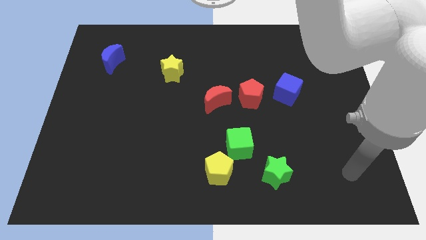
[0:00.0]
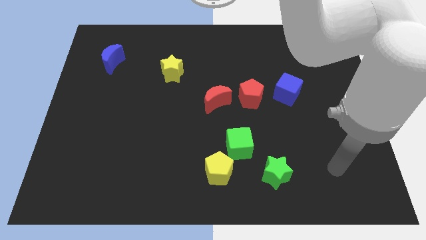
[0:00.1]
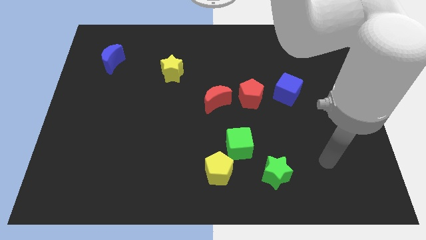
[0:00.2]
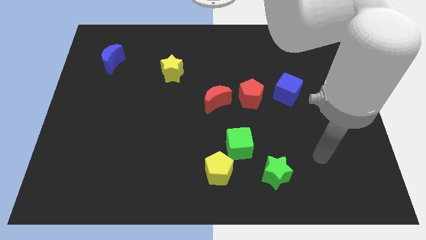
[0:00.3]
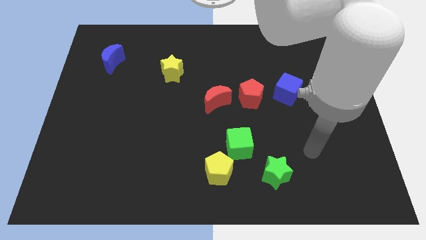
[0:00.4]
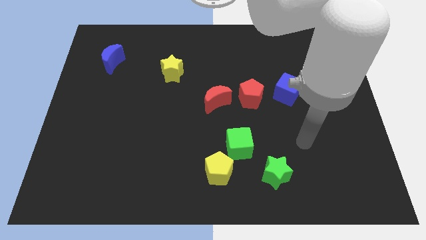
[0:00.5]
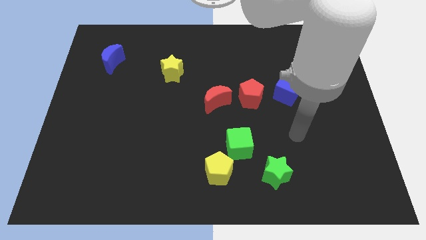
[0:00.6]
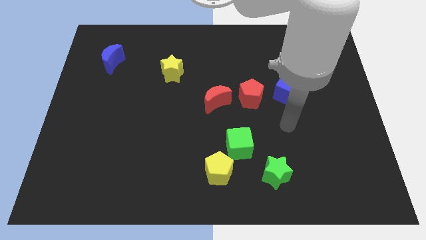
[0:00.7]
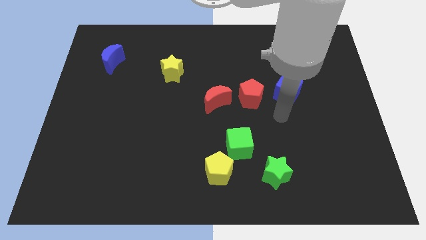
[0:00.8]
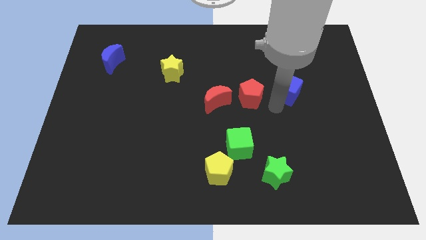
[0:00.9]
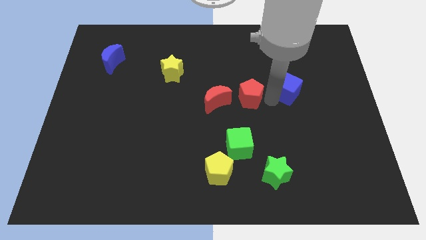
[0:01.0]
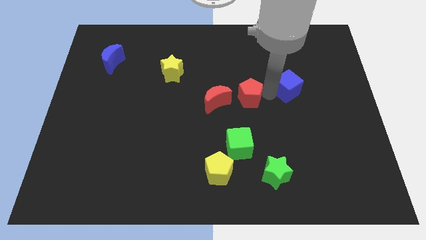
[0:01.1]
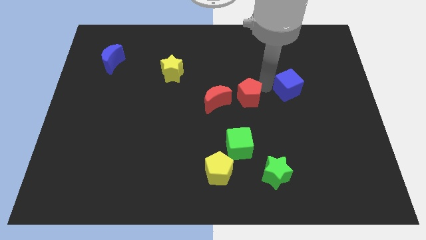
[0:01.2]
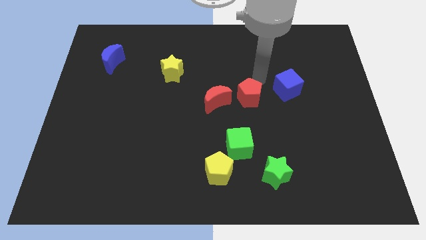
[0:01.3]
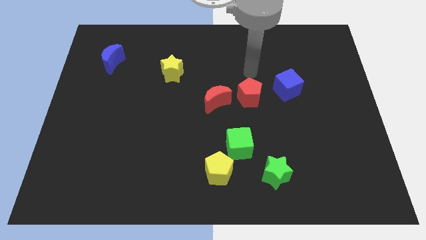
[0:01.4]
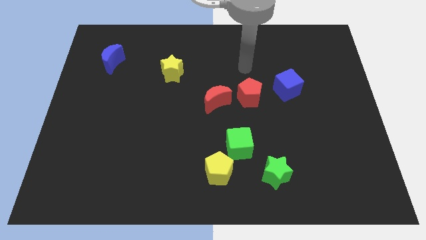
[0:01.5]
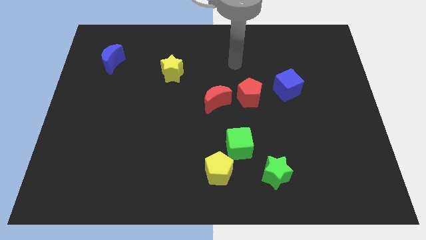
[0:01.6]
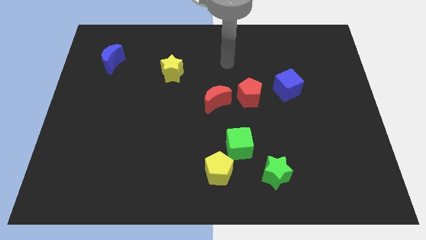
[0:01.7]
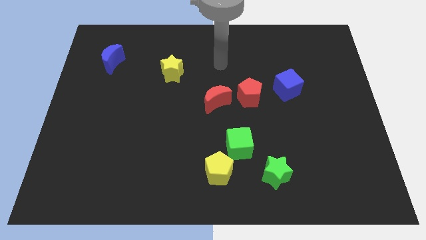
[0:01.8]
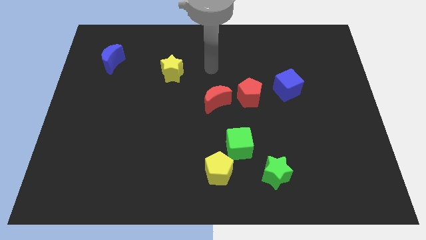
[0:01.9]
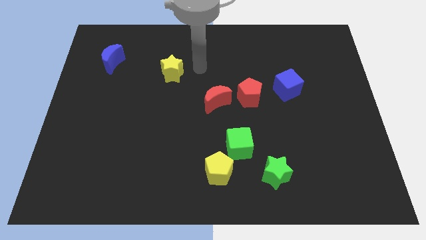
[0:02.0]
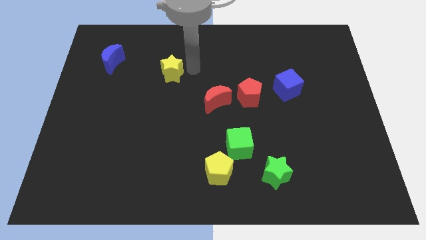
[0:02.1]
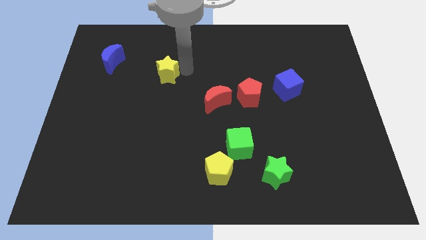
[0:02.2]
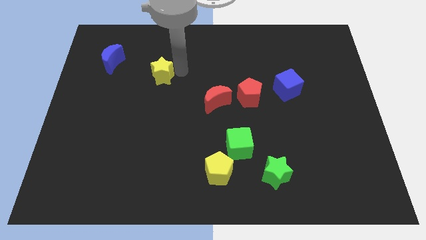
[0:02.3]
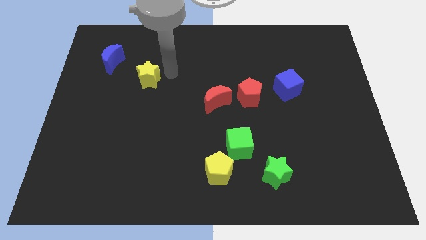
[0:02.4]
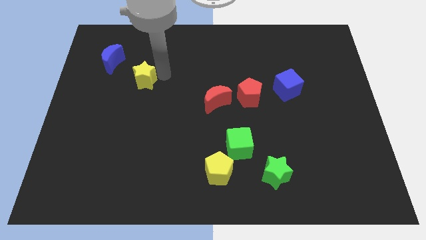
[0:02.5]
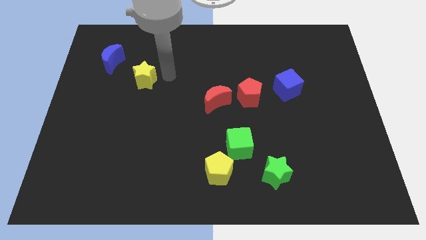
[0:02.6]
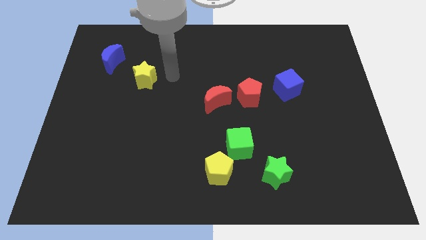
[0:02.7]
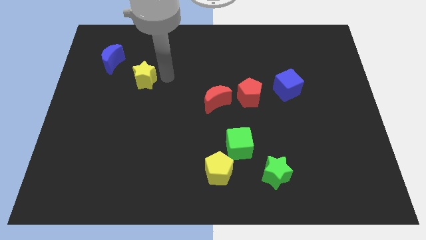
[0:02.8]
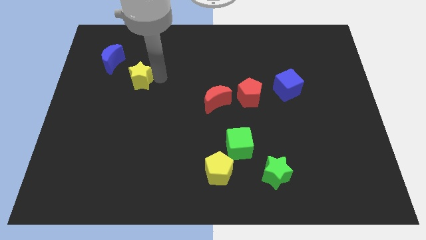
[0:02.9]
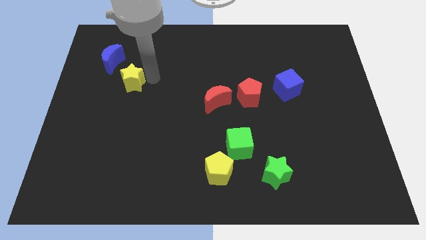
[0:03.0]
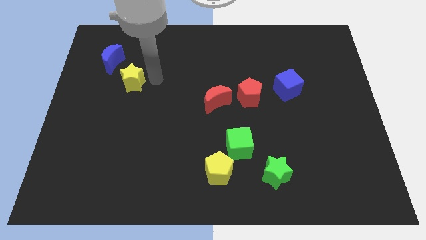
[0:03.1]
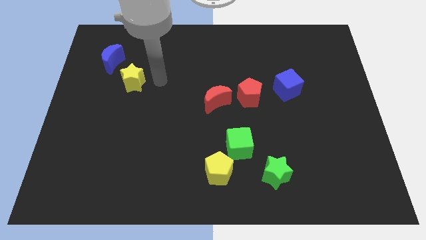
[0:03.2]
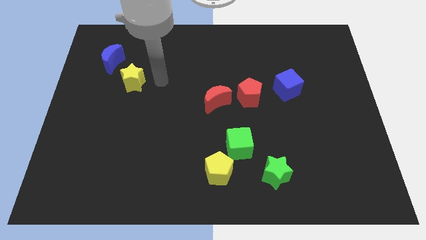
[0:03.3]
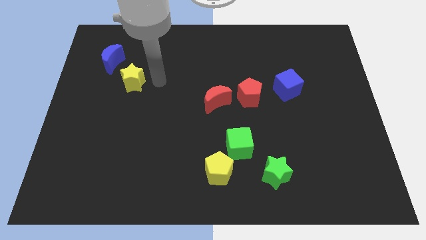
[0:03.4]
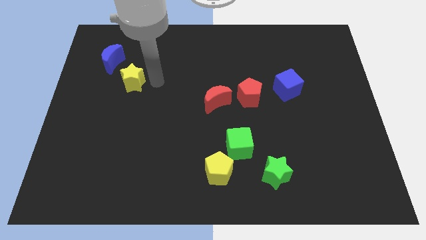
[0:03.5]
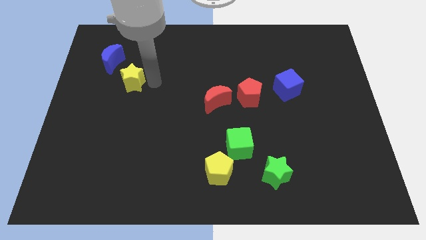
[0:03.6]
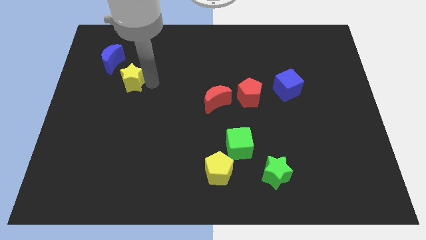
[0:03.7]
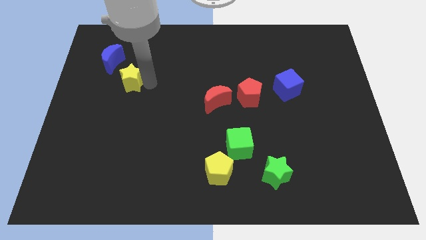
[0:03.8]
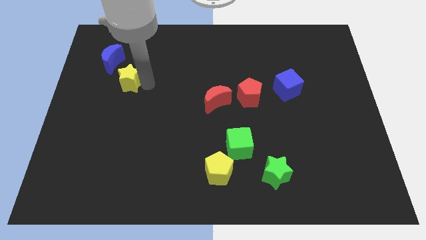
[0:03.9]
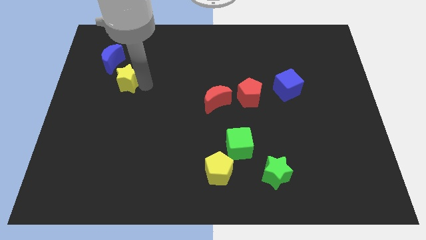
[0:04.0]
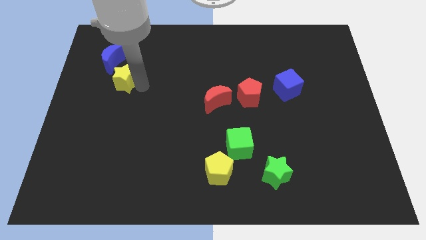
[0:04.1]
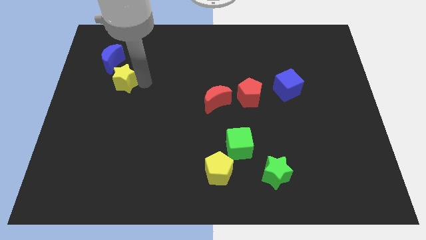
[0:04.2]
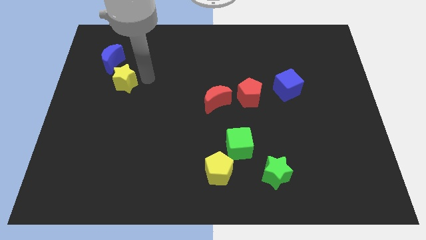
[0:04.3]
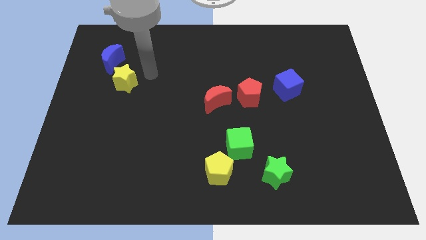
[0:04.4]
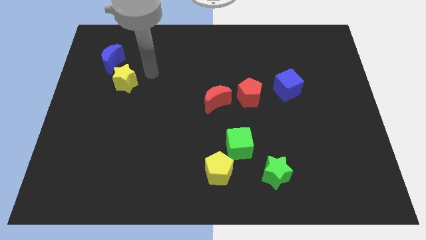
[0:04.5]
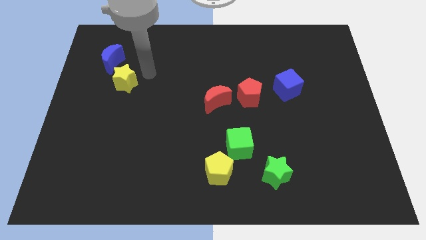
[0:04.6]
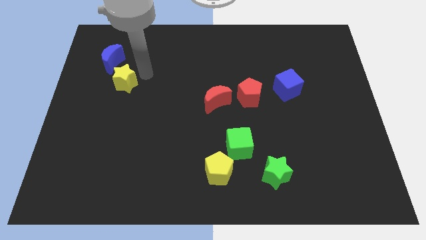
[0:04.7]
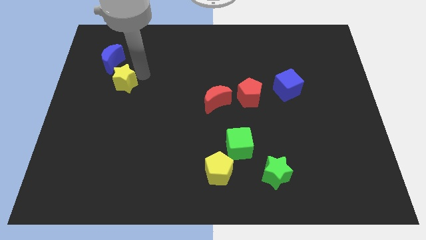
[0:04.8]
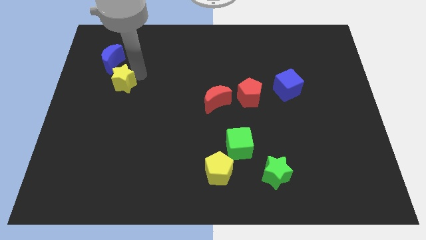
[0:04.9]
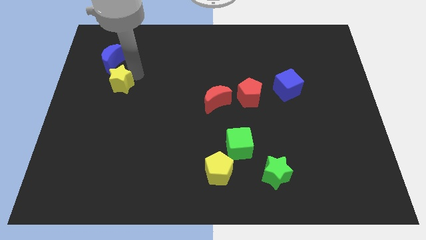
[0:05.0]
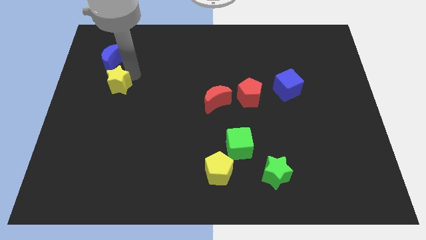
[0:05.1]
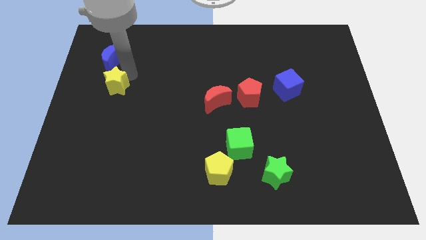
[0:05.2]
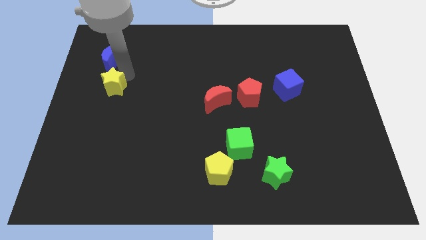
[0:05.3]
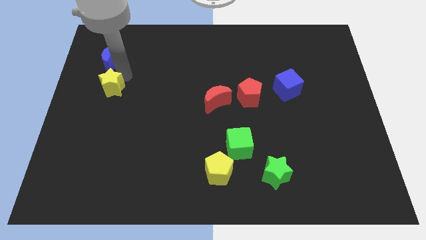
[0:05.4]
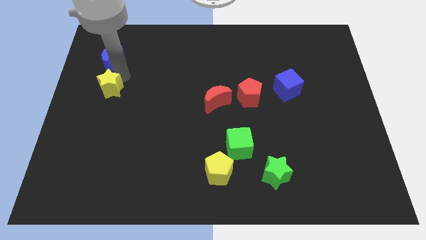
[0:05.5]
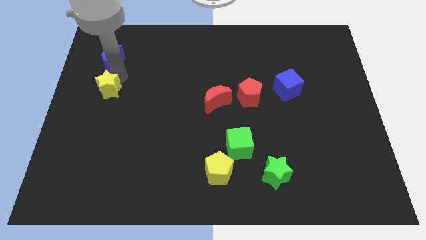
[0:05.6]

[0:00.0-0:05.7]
slide the yellow star to the center left
